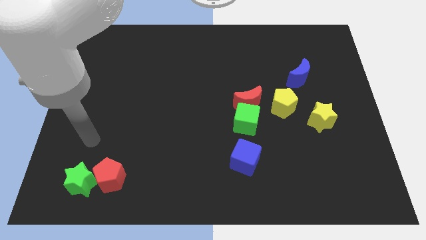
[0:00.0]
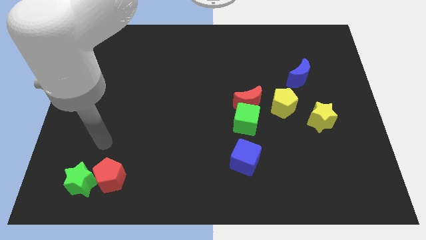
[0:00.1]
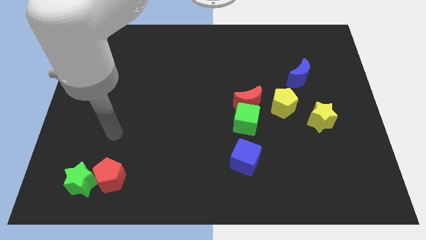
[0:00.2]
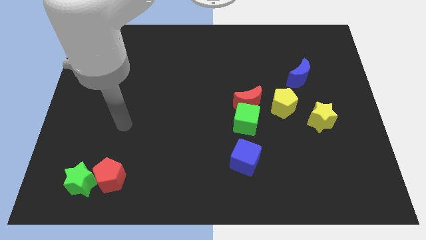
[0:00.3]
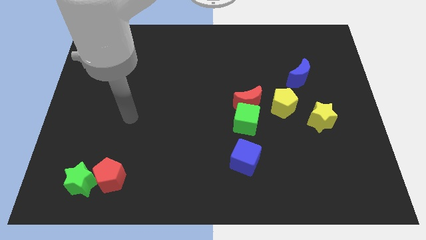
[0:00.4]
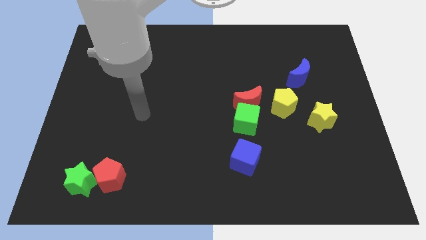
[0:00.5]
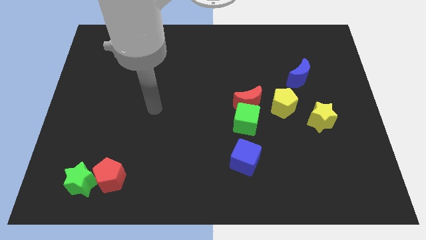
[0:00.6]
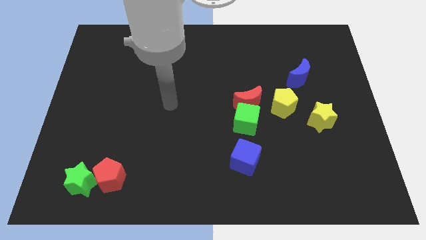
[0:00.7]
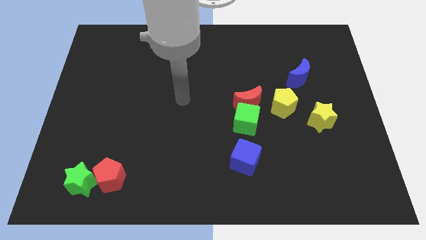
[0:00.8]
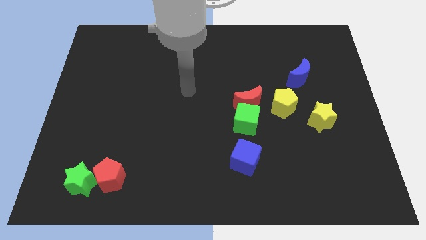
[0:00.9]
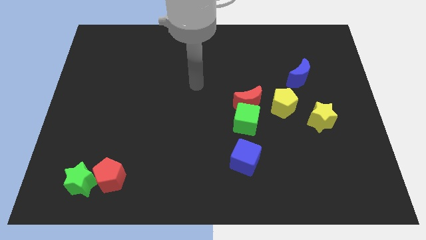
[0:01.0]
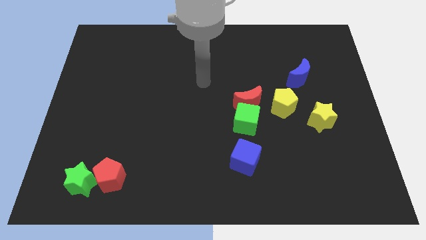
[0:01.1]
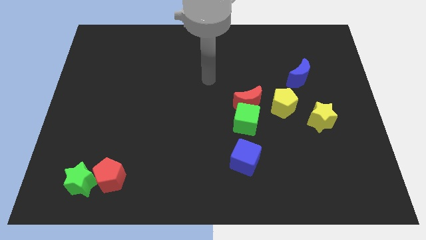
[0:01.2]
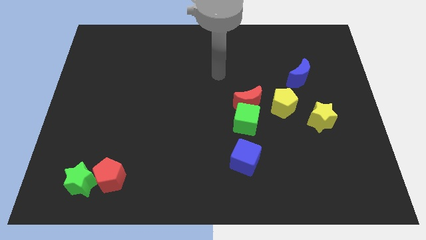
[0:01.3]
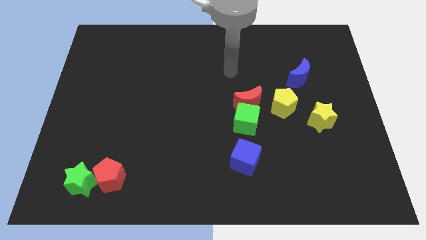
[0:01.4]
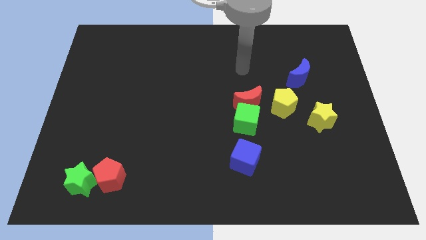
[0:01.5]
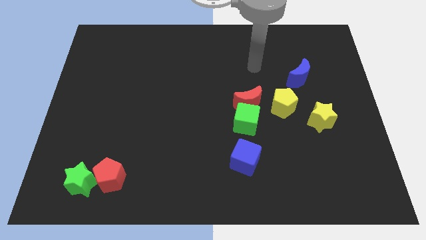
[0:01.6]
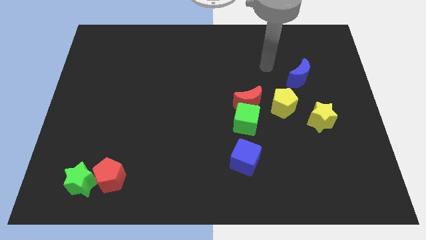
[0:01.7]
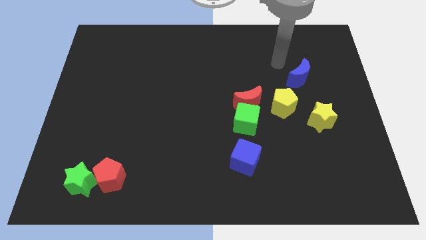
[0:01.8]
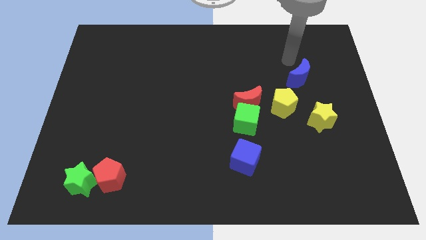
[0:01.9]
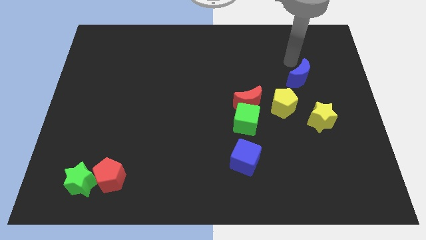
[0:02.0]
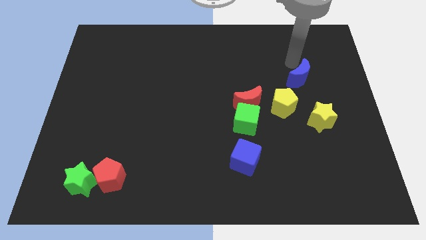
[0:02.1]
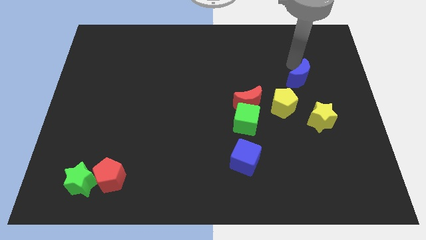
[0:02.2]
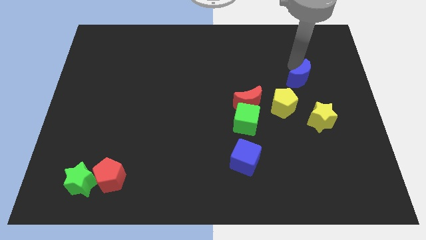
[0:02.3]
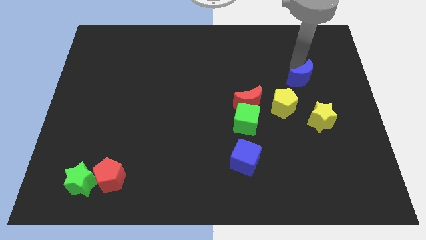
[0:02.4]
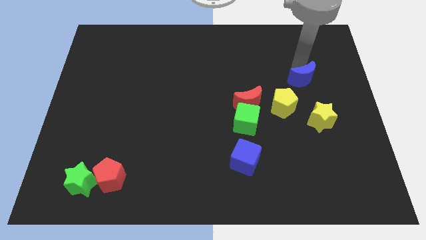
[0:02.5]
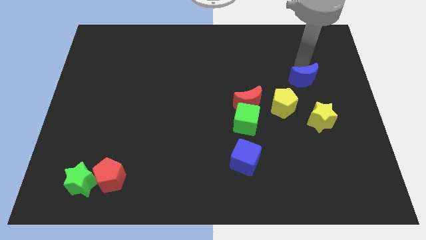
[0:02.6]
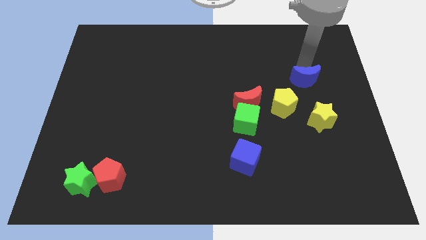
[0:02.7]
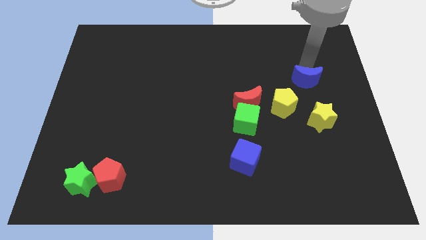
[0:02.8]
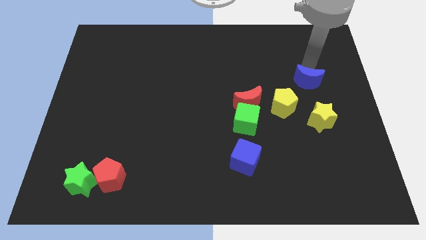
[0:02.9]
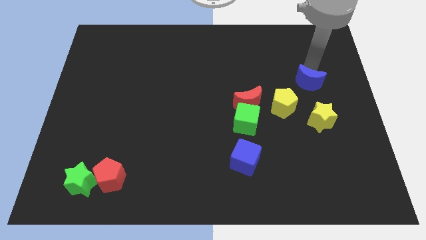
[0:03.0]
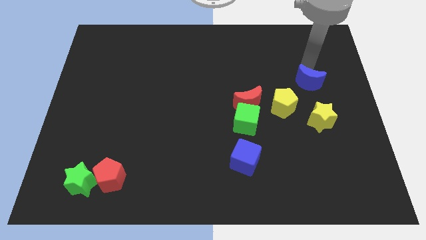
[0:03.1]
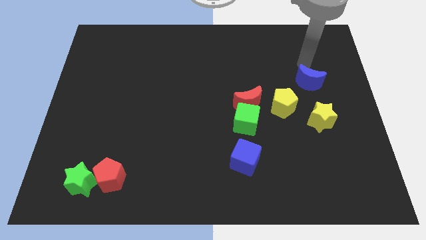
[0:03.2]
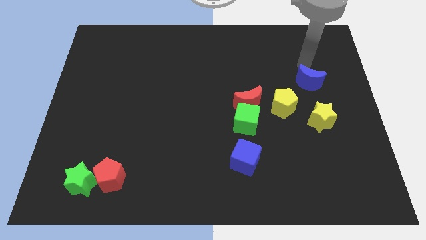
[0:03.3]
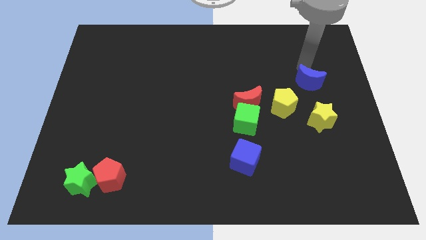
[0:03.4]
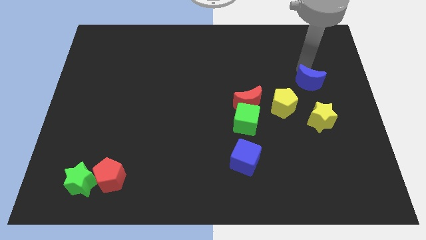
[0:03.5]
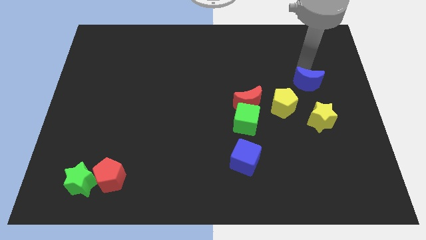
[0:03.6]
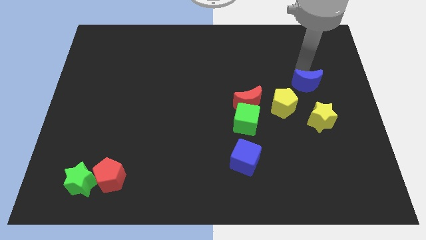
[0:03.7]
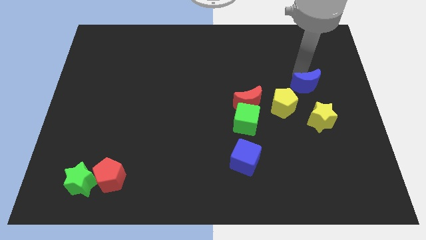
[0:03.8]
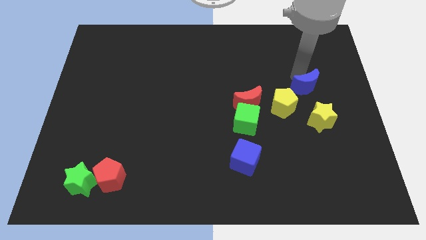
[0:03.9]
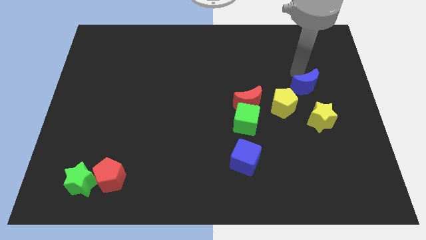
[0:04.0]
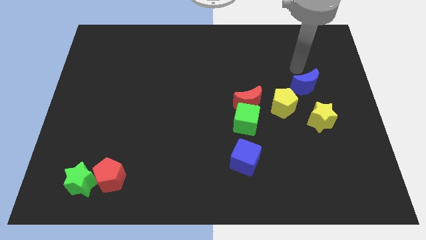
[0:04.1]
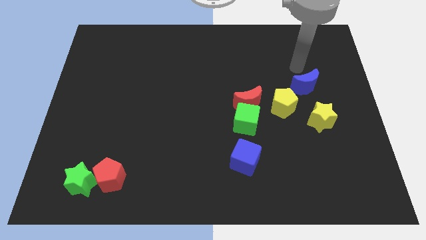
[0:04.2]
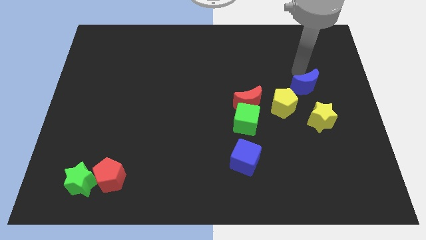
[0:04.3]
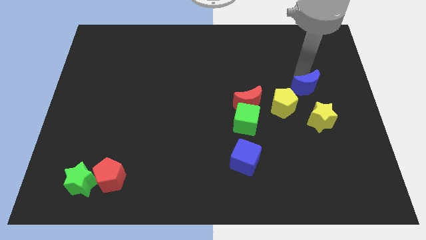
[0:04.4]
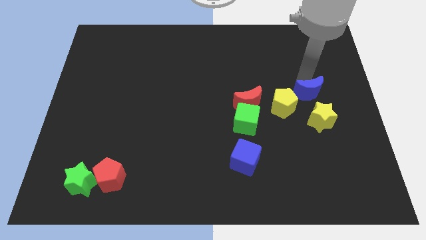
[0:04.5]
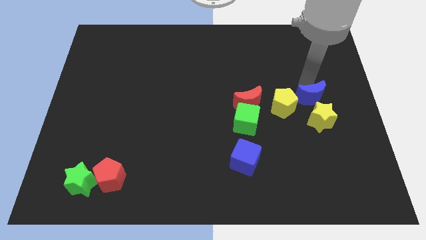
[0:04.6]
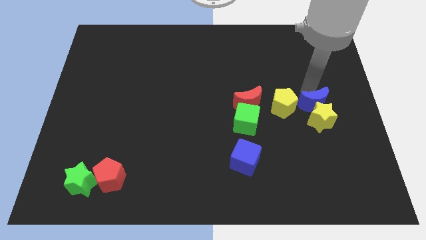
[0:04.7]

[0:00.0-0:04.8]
move the blue moon close to the yellow star

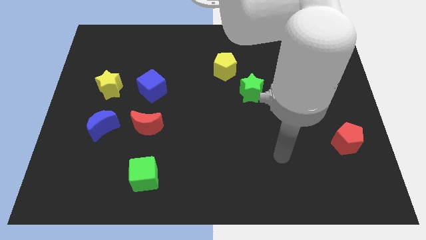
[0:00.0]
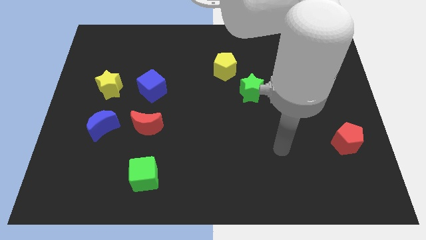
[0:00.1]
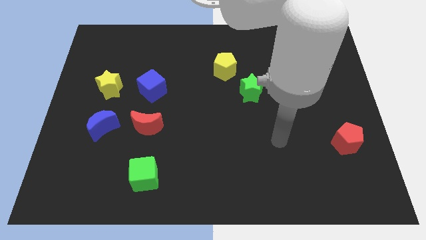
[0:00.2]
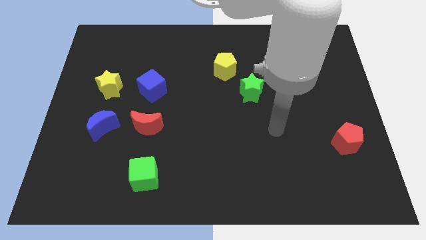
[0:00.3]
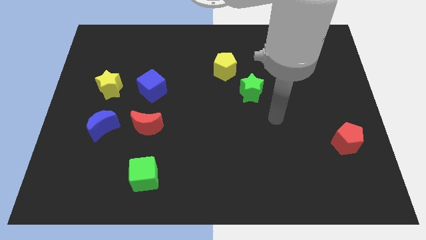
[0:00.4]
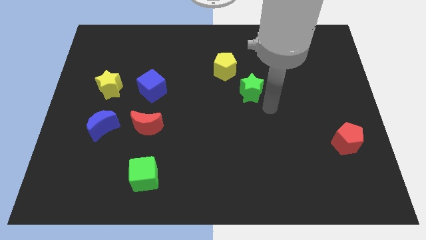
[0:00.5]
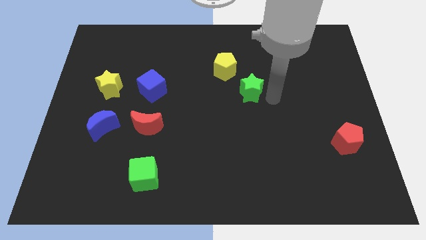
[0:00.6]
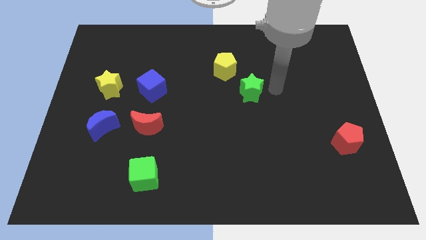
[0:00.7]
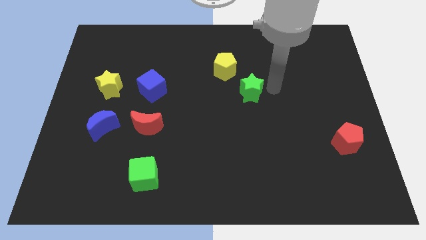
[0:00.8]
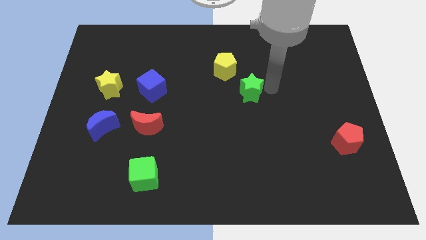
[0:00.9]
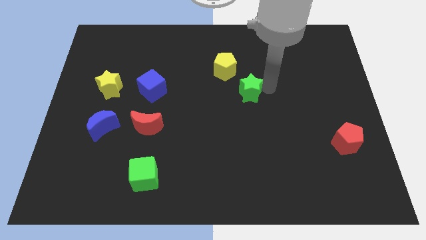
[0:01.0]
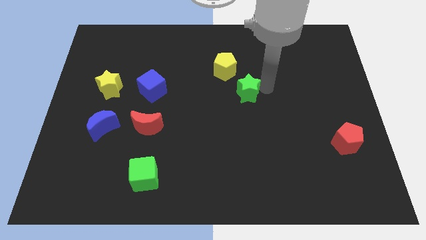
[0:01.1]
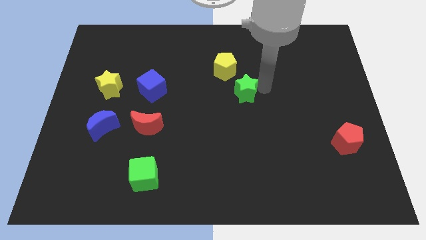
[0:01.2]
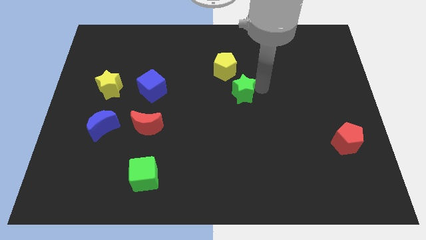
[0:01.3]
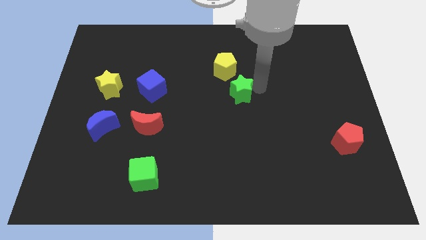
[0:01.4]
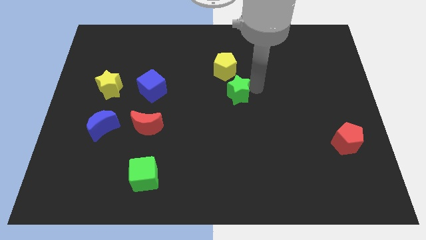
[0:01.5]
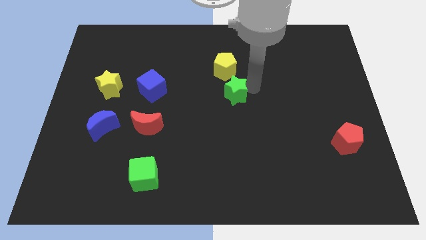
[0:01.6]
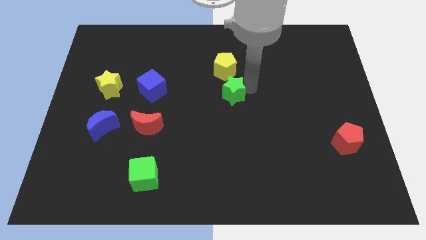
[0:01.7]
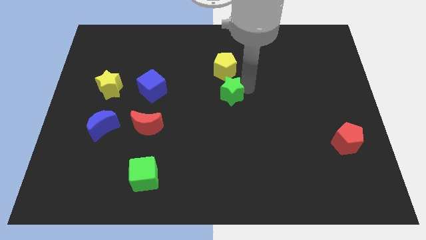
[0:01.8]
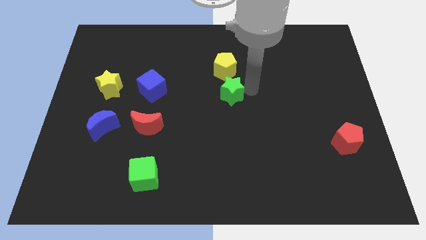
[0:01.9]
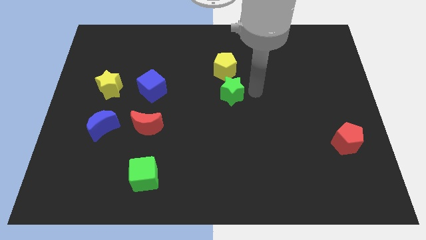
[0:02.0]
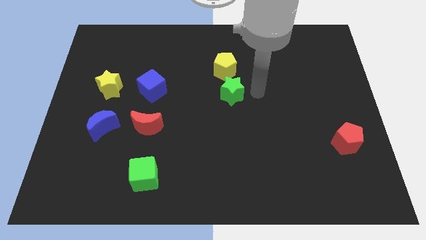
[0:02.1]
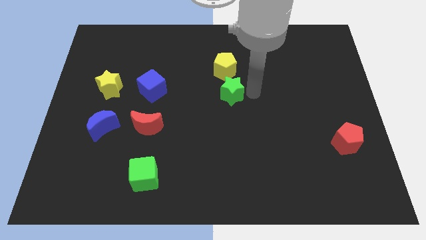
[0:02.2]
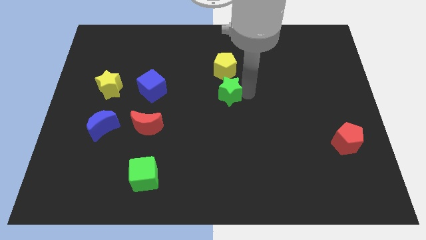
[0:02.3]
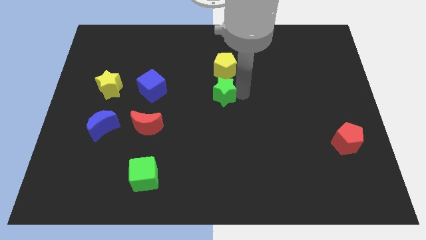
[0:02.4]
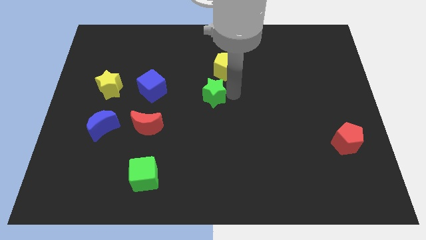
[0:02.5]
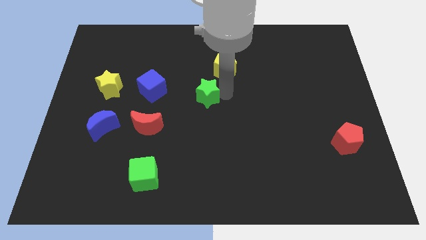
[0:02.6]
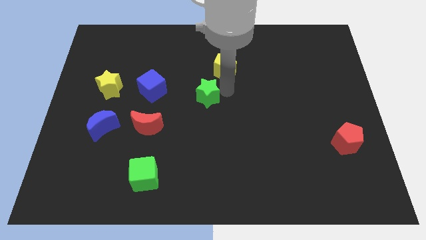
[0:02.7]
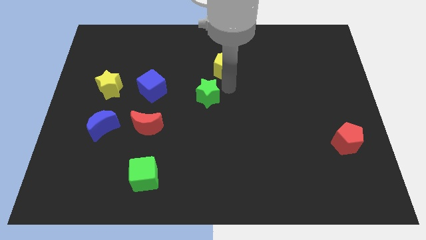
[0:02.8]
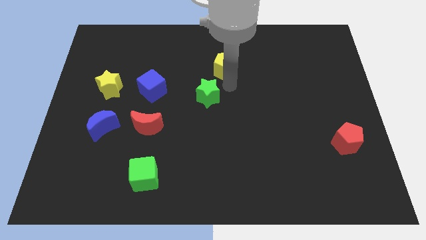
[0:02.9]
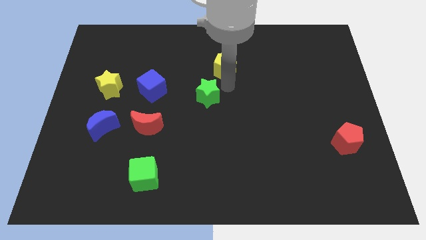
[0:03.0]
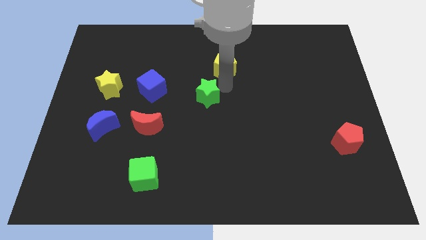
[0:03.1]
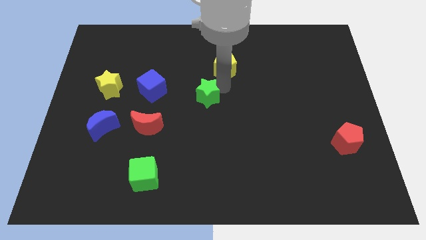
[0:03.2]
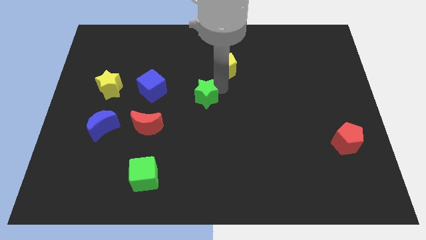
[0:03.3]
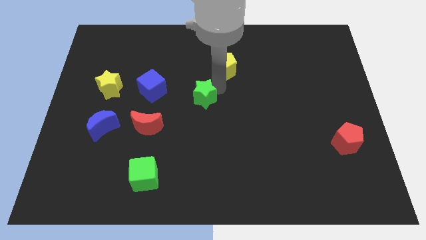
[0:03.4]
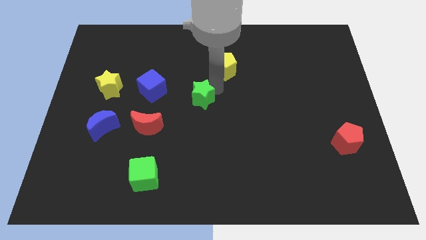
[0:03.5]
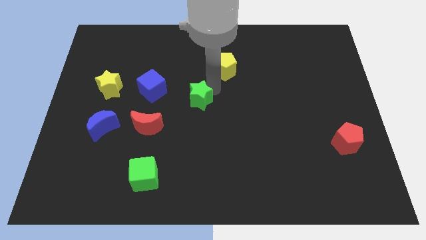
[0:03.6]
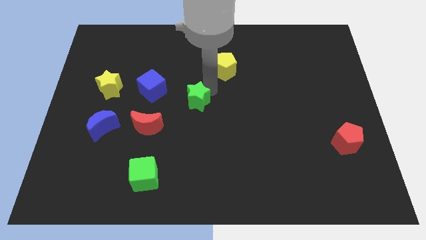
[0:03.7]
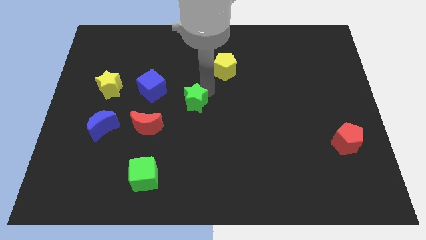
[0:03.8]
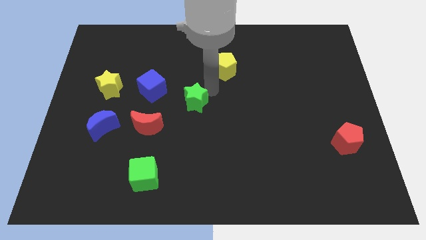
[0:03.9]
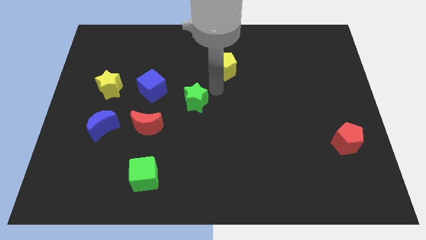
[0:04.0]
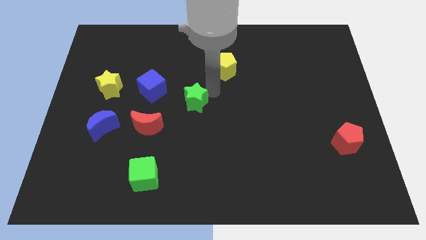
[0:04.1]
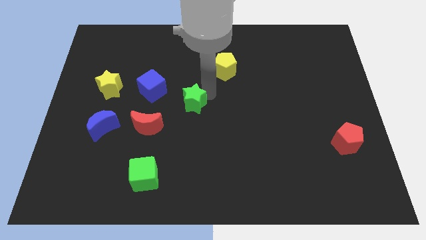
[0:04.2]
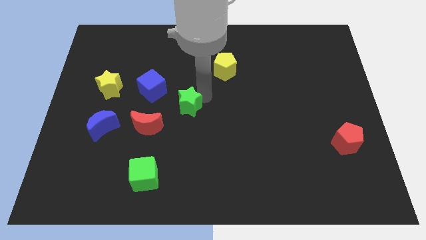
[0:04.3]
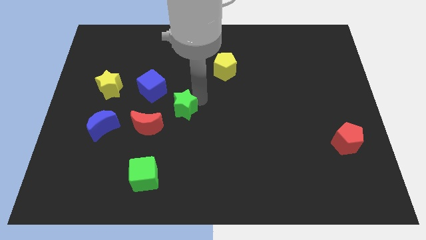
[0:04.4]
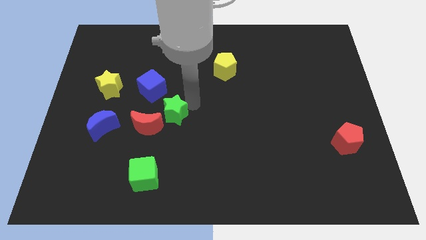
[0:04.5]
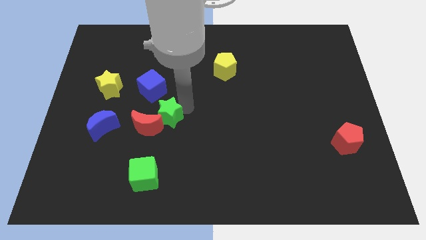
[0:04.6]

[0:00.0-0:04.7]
move the green star next to the red moon
